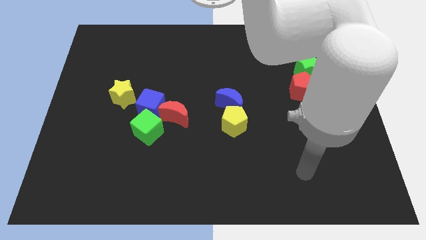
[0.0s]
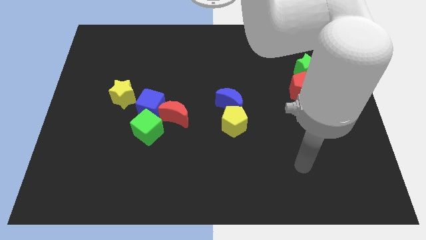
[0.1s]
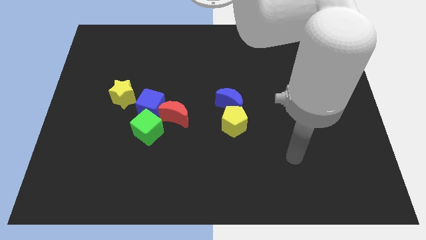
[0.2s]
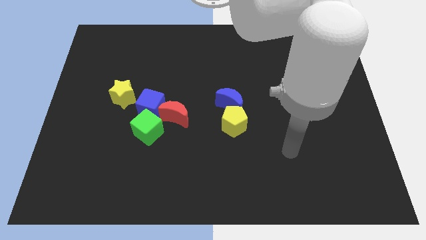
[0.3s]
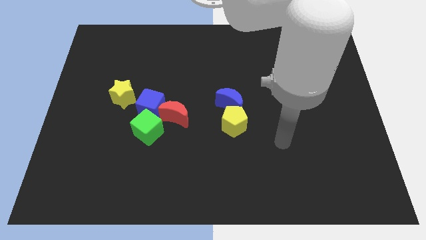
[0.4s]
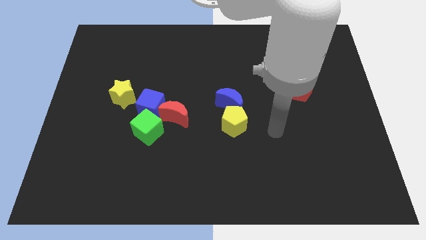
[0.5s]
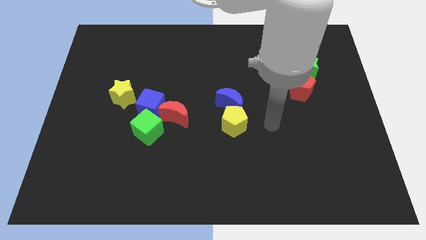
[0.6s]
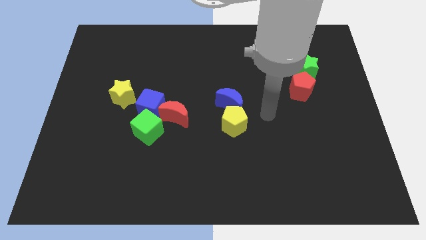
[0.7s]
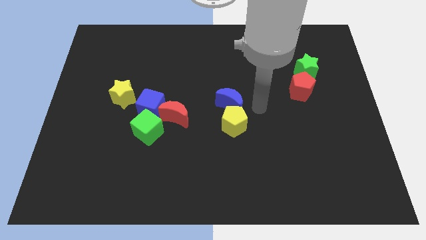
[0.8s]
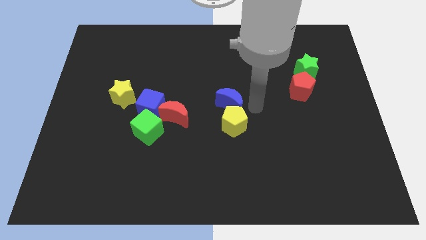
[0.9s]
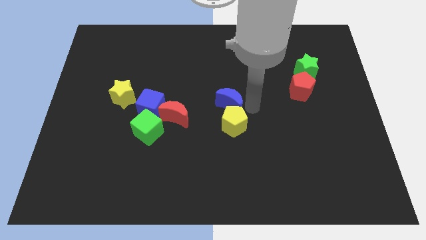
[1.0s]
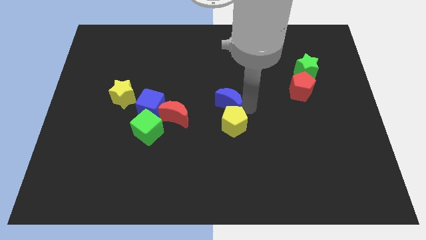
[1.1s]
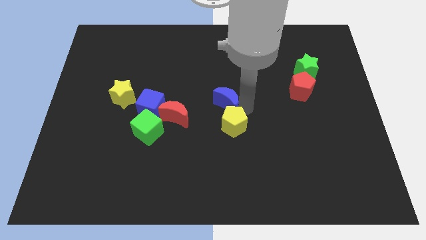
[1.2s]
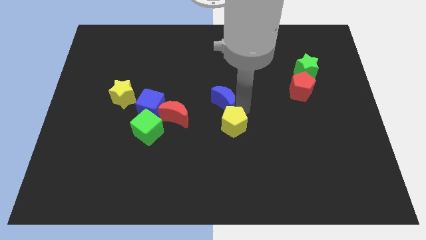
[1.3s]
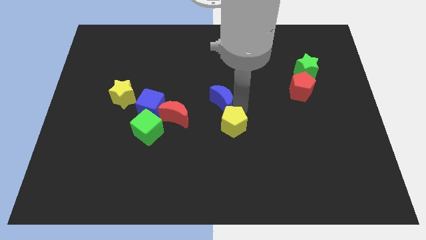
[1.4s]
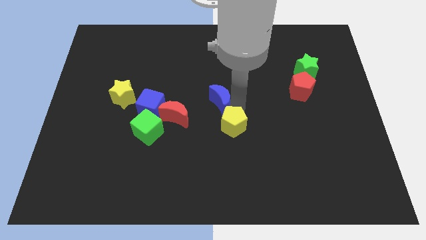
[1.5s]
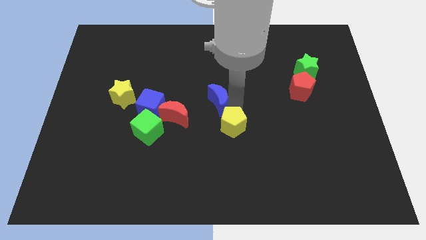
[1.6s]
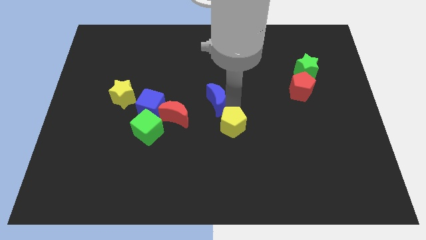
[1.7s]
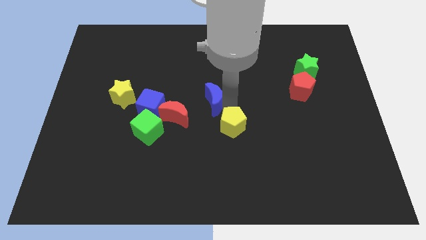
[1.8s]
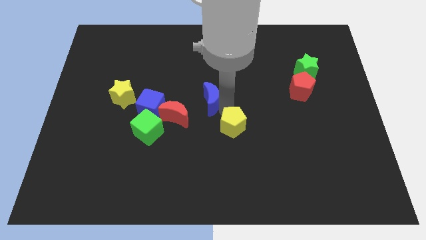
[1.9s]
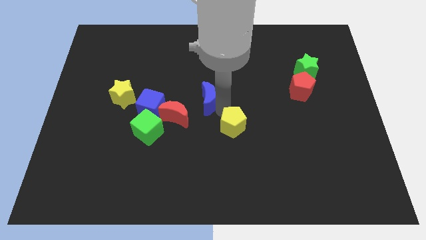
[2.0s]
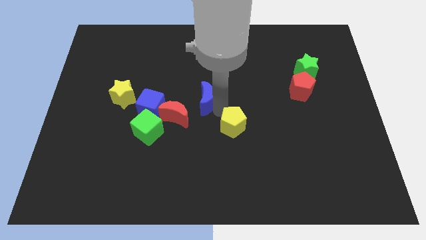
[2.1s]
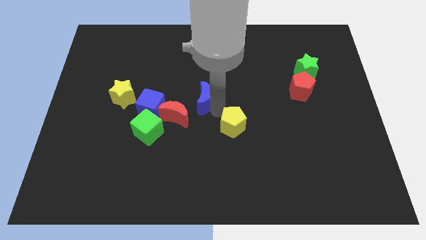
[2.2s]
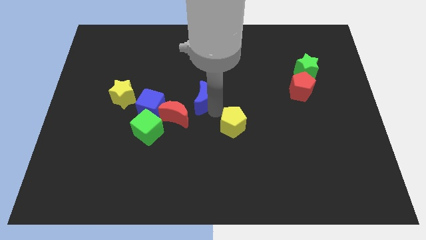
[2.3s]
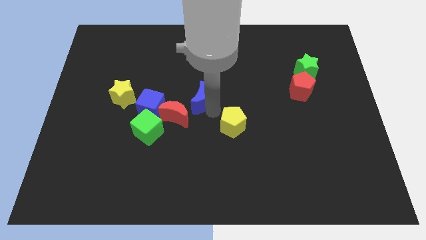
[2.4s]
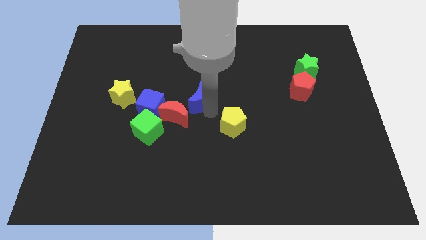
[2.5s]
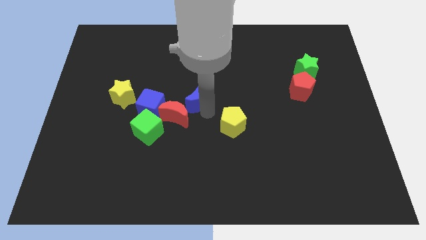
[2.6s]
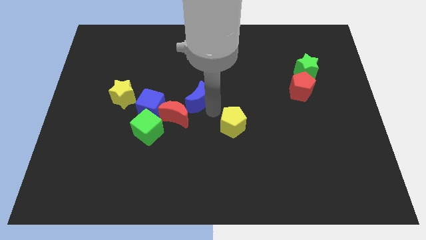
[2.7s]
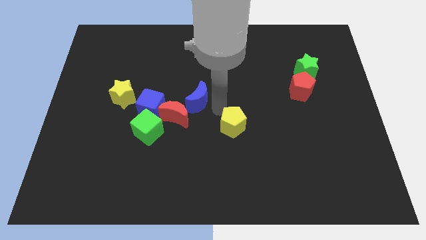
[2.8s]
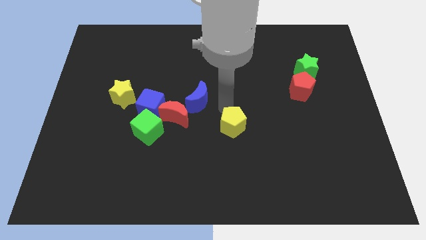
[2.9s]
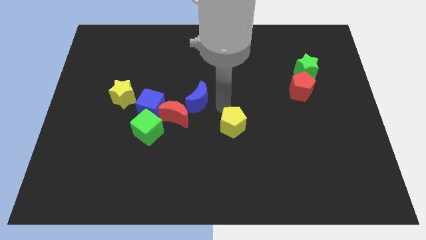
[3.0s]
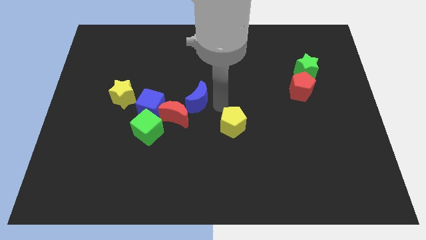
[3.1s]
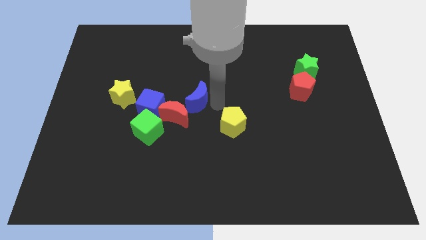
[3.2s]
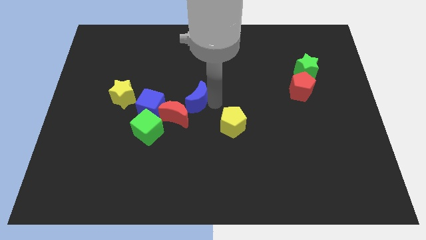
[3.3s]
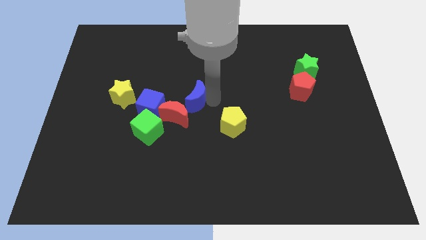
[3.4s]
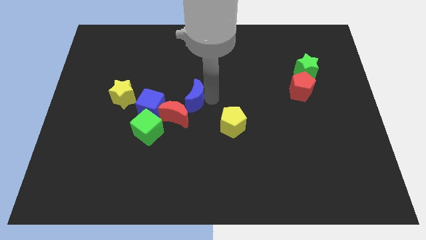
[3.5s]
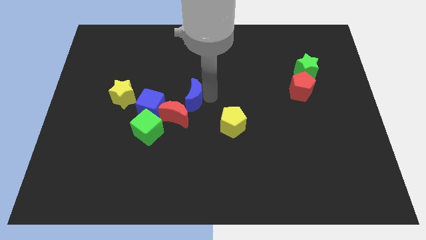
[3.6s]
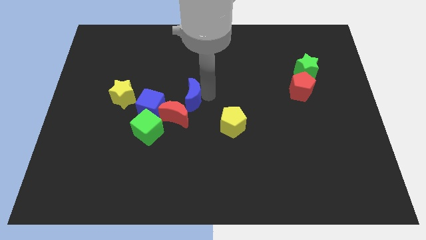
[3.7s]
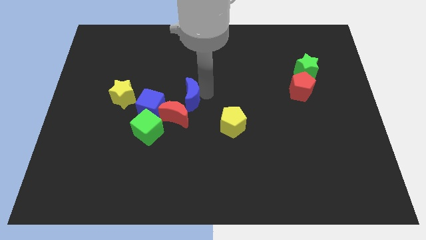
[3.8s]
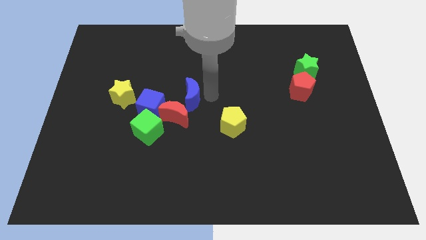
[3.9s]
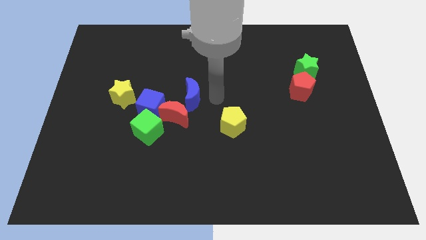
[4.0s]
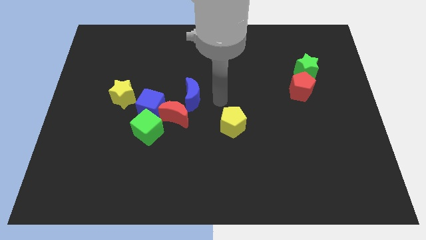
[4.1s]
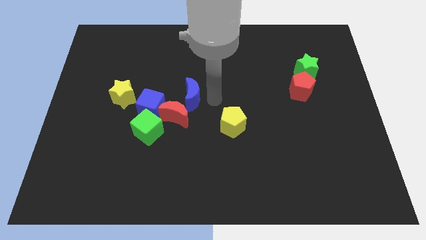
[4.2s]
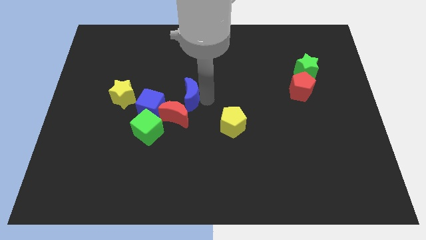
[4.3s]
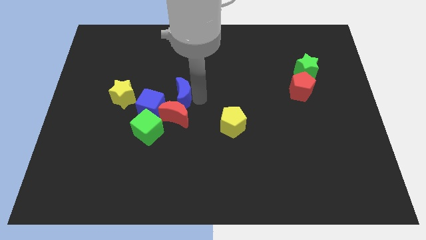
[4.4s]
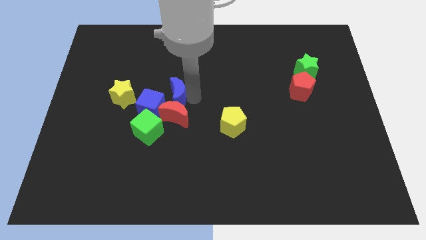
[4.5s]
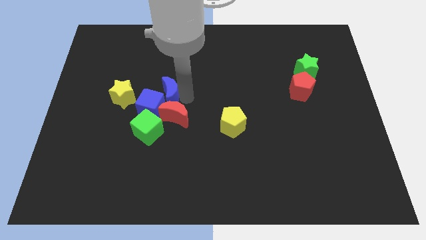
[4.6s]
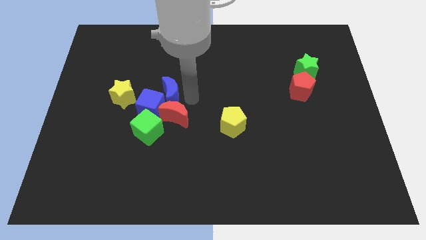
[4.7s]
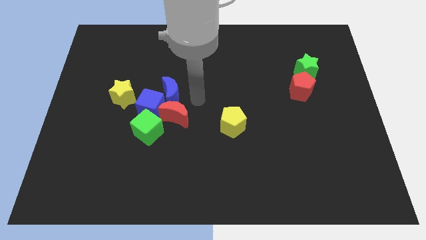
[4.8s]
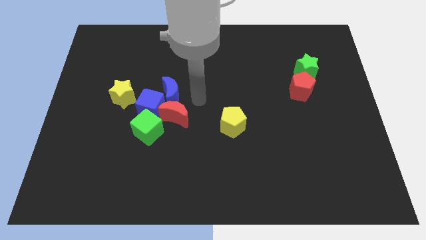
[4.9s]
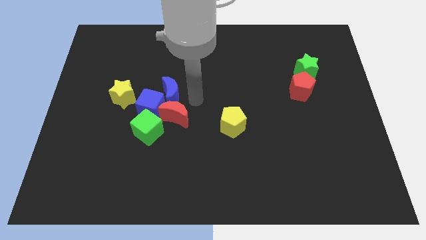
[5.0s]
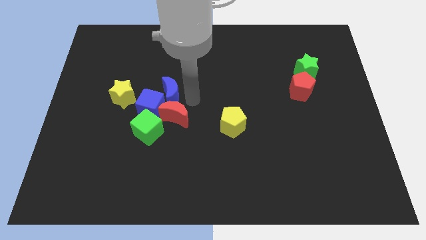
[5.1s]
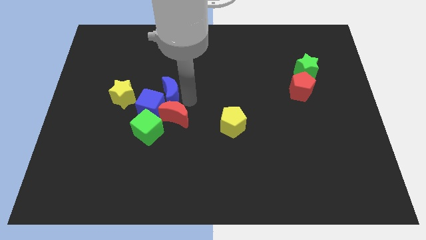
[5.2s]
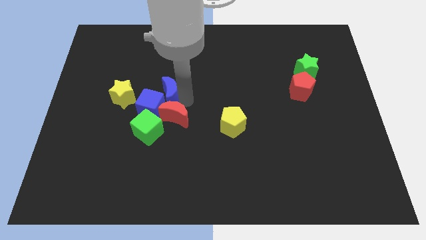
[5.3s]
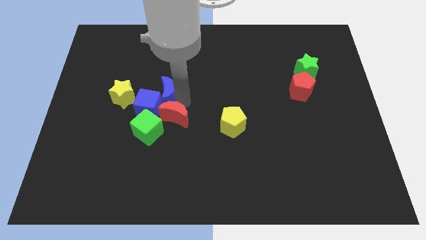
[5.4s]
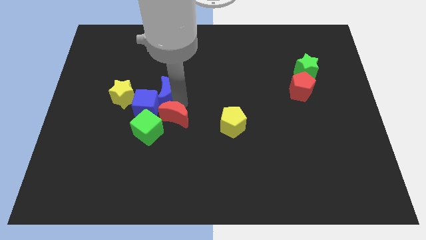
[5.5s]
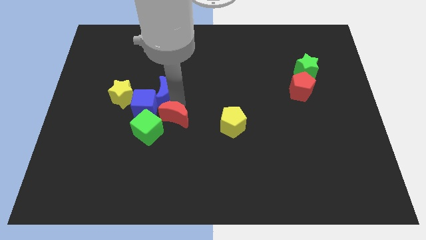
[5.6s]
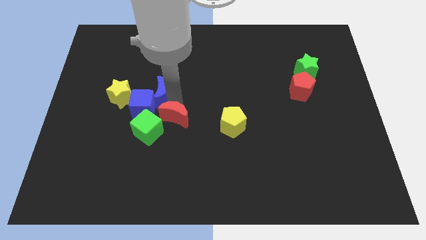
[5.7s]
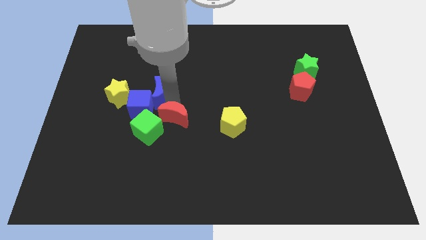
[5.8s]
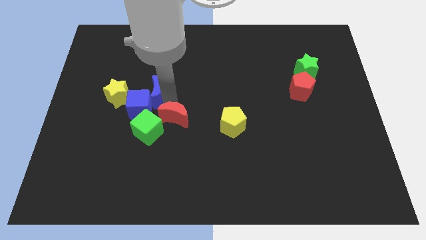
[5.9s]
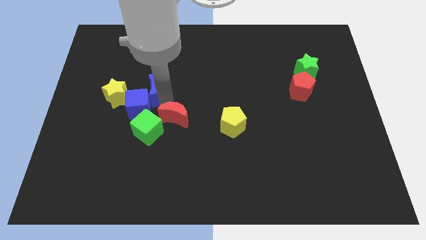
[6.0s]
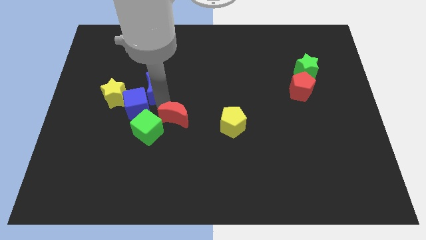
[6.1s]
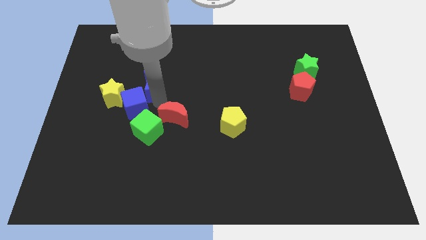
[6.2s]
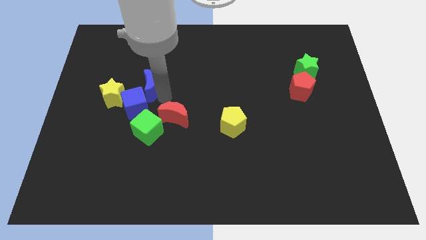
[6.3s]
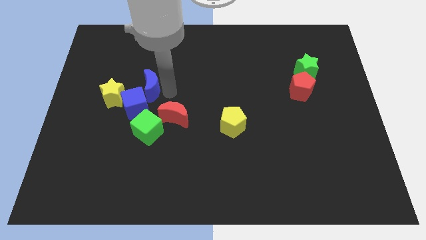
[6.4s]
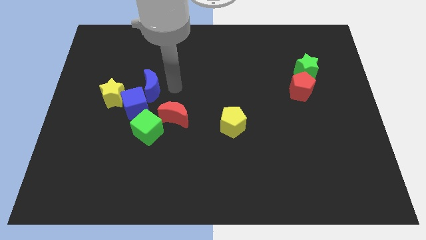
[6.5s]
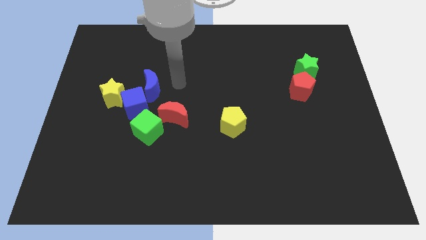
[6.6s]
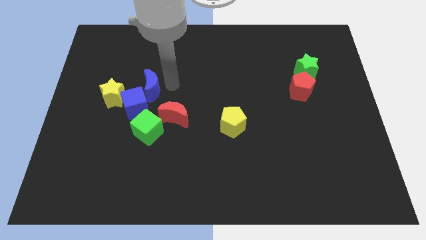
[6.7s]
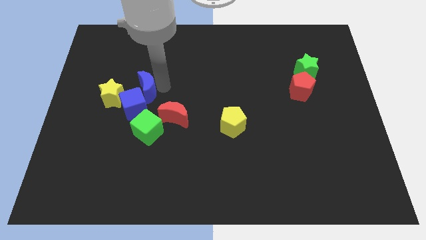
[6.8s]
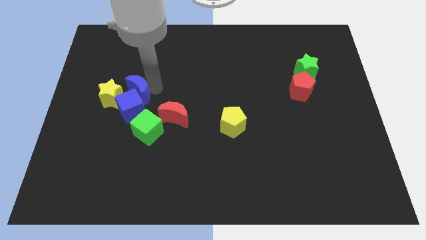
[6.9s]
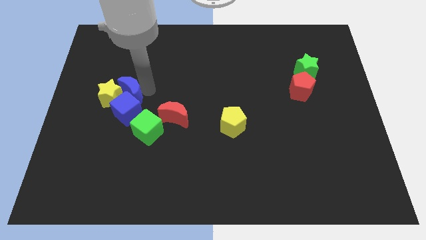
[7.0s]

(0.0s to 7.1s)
move the blue moon towards the yellow star
